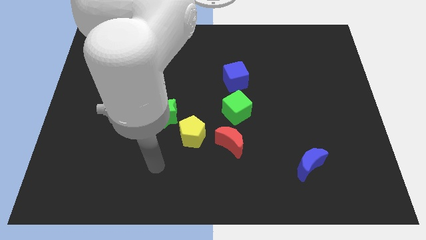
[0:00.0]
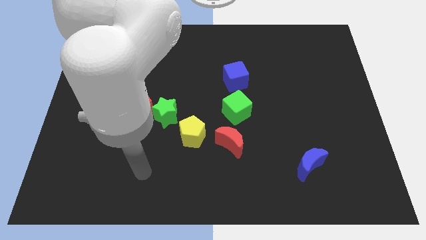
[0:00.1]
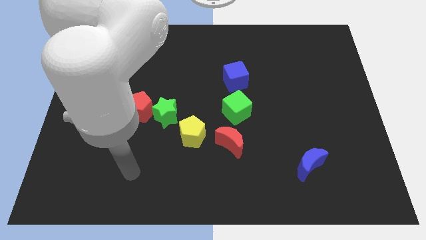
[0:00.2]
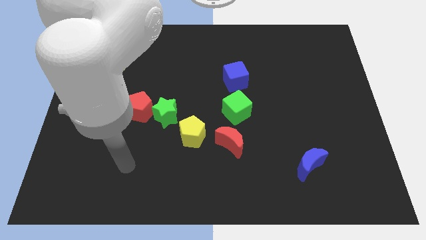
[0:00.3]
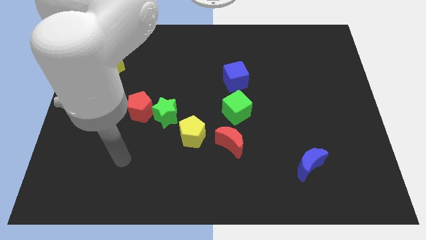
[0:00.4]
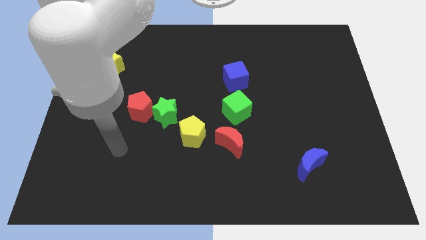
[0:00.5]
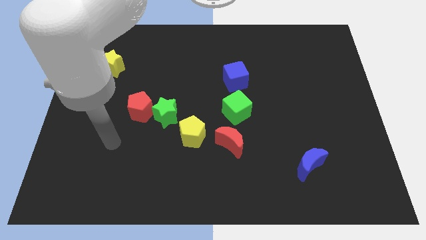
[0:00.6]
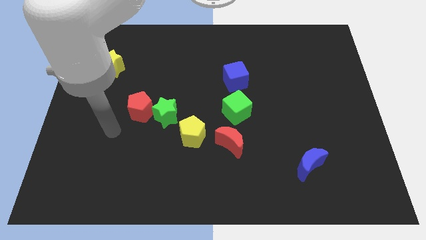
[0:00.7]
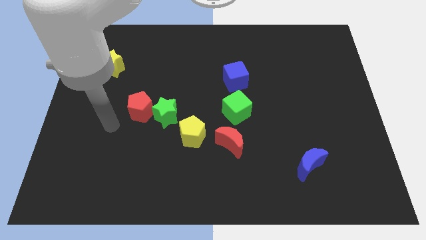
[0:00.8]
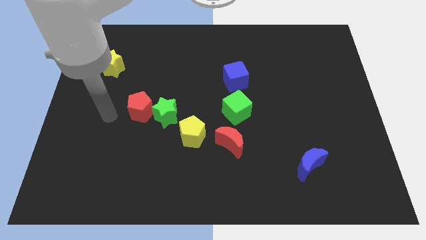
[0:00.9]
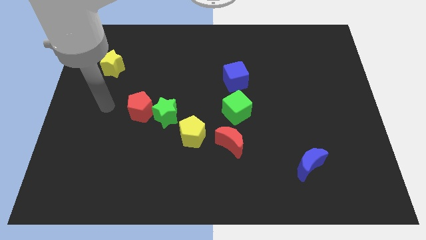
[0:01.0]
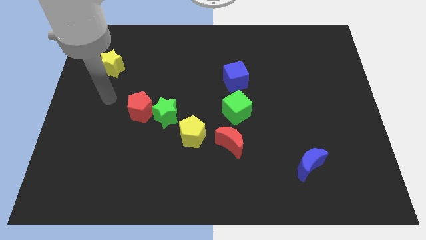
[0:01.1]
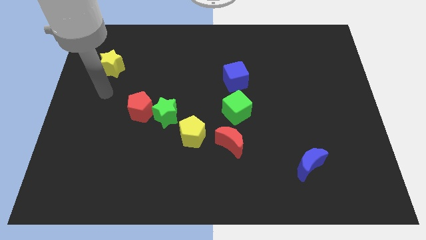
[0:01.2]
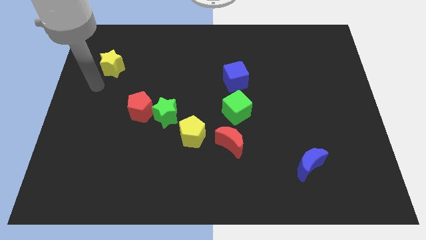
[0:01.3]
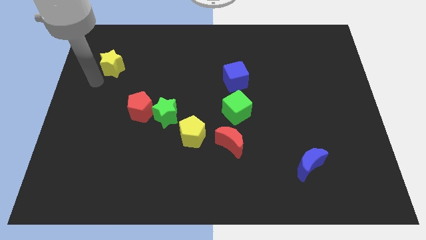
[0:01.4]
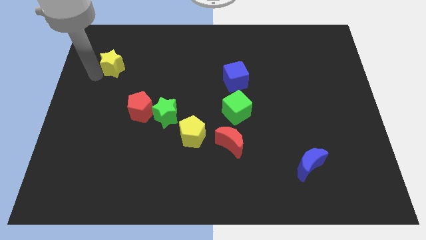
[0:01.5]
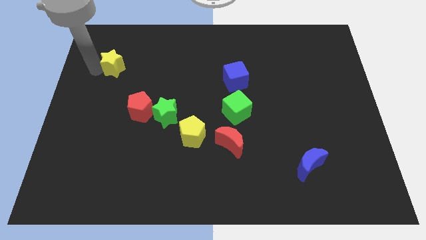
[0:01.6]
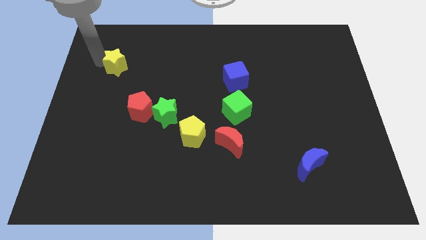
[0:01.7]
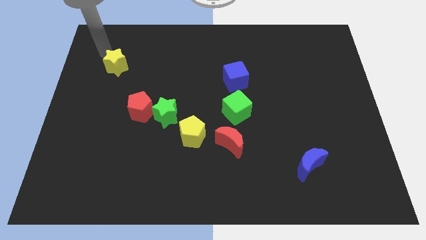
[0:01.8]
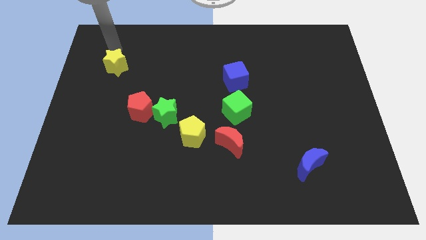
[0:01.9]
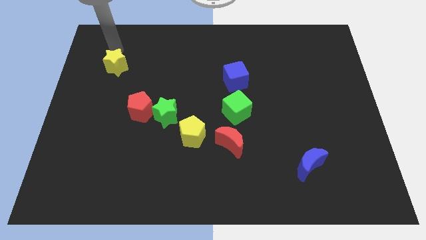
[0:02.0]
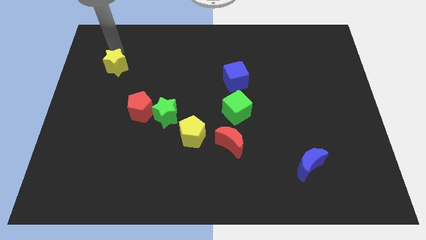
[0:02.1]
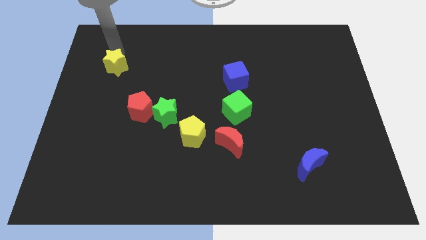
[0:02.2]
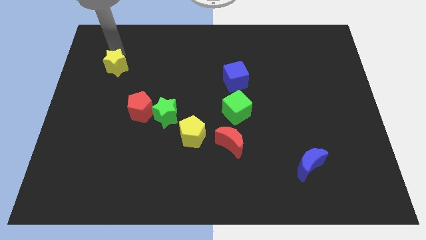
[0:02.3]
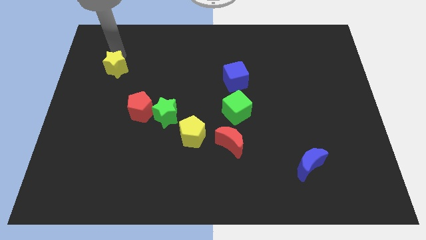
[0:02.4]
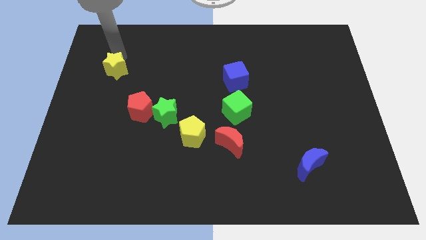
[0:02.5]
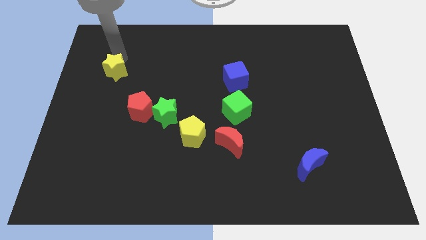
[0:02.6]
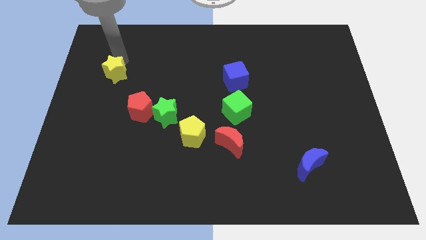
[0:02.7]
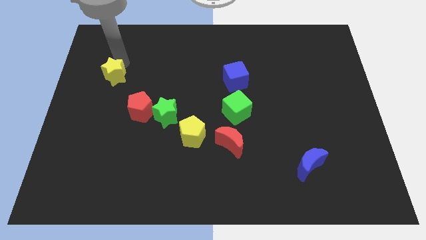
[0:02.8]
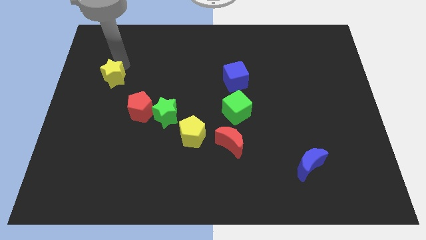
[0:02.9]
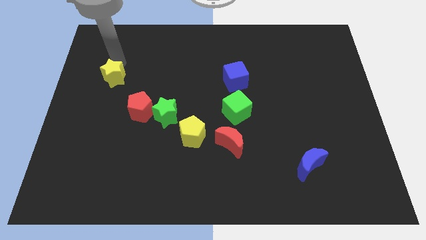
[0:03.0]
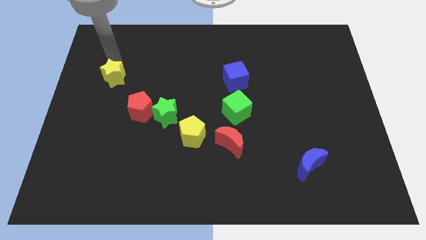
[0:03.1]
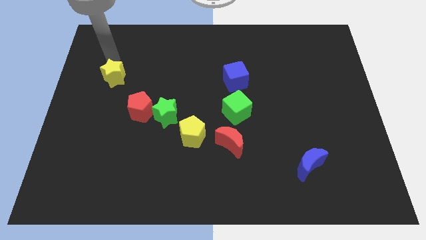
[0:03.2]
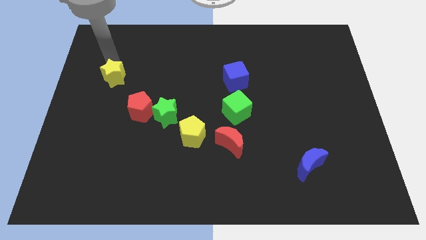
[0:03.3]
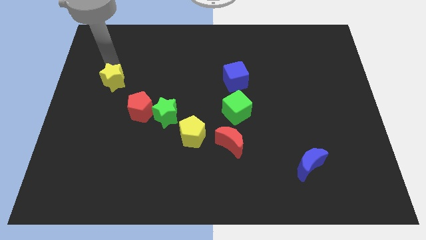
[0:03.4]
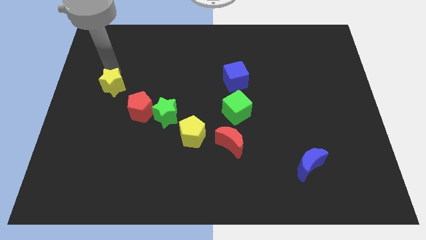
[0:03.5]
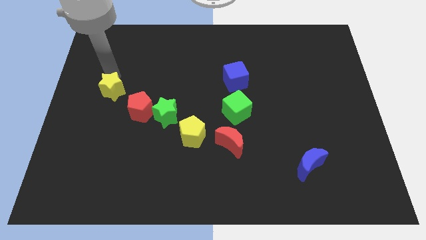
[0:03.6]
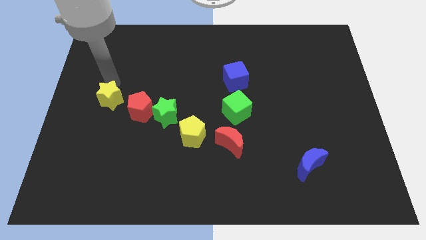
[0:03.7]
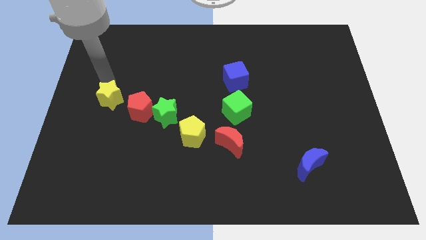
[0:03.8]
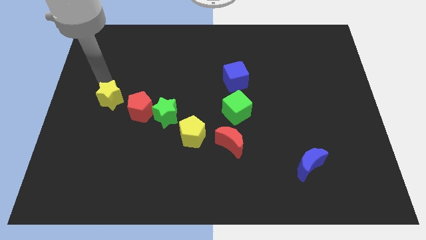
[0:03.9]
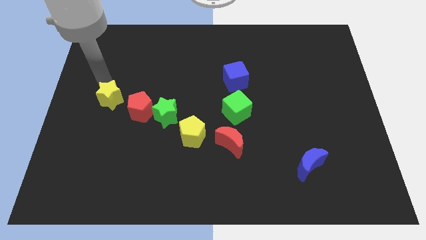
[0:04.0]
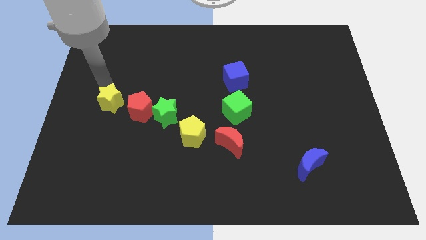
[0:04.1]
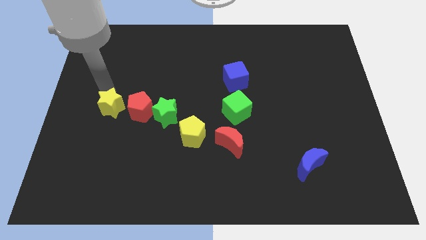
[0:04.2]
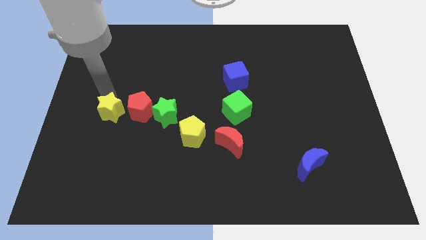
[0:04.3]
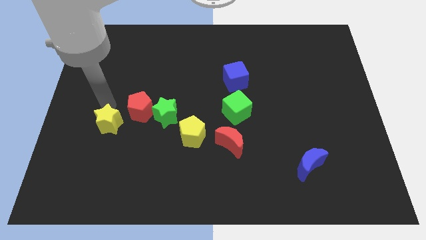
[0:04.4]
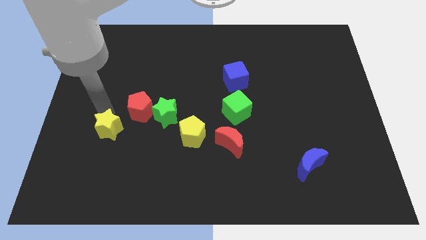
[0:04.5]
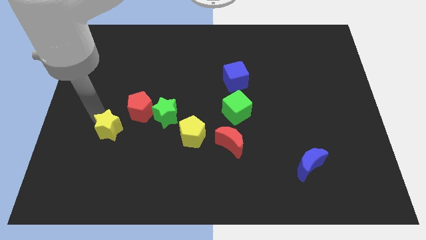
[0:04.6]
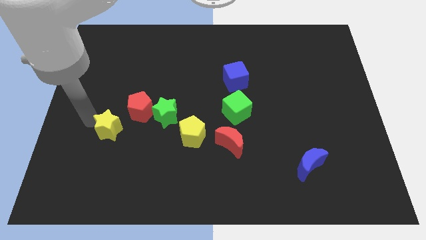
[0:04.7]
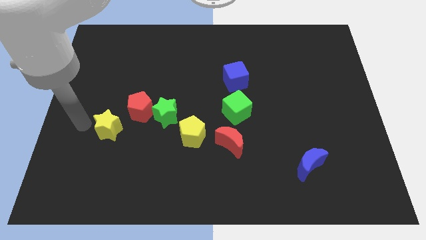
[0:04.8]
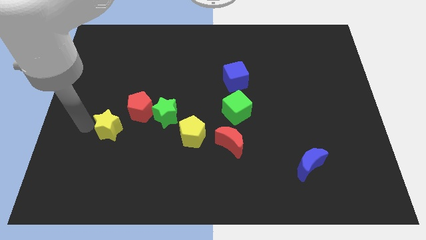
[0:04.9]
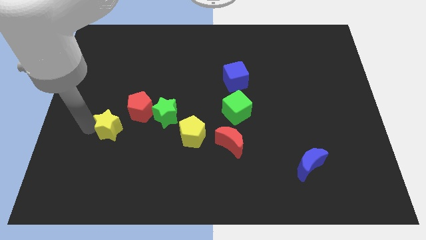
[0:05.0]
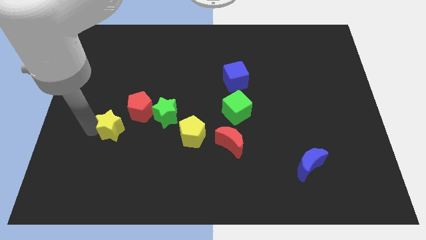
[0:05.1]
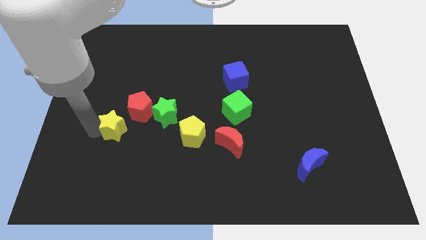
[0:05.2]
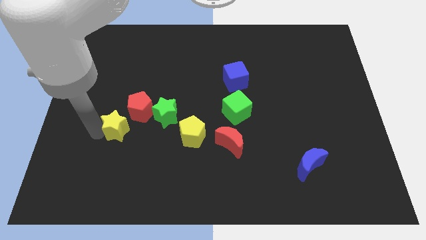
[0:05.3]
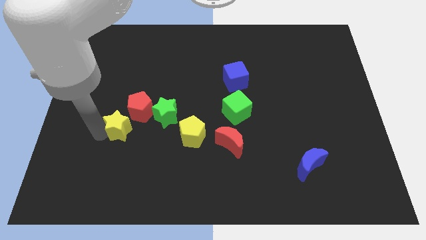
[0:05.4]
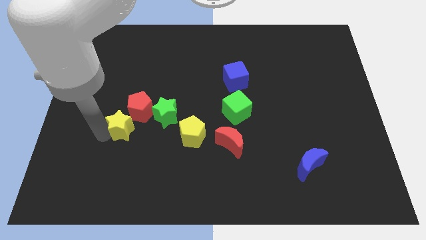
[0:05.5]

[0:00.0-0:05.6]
put the yellow star to the bottom left side of the green star

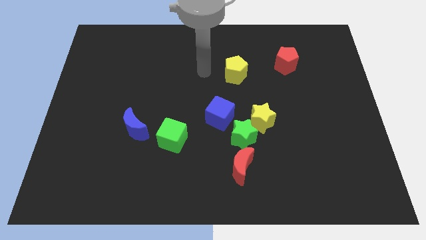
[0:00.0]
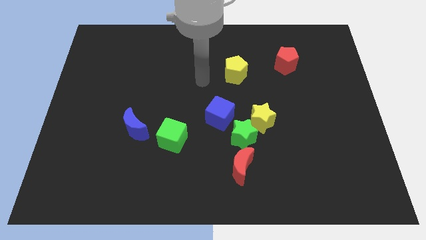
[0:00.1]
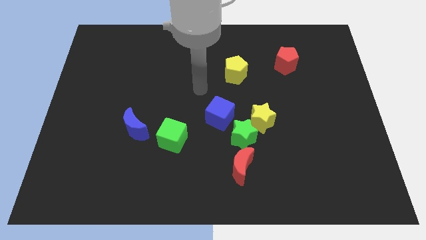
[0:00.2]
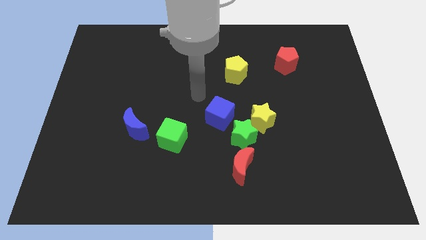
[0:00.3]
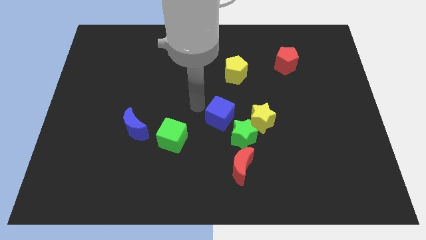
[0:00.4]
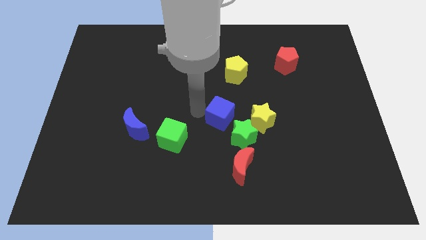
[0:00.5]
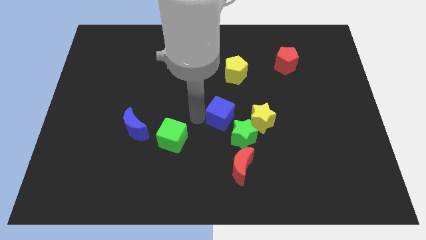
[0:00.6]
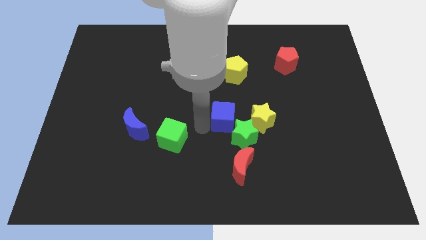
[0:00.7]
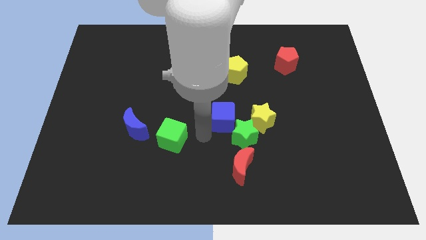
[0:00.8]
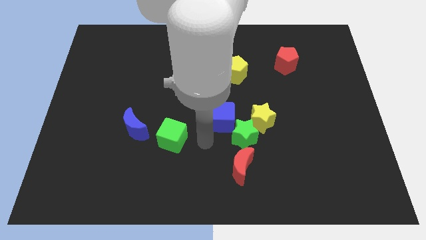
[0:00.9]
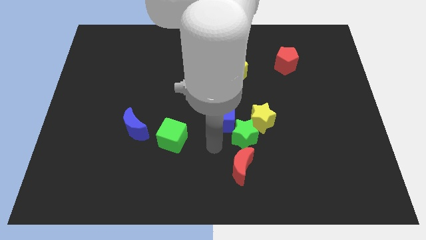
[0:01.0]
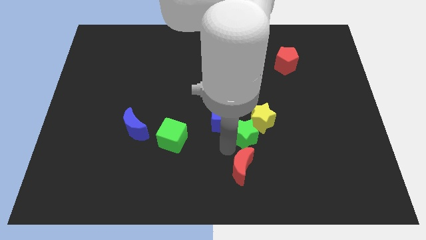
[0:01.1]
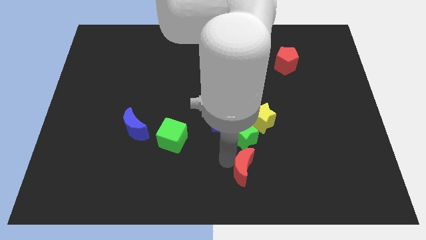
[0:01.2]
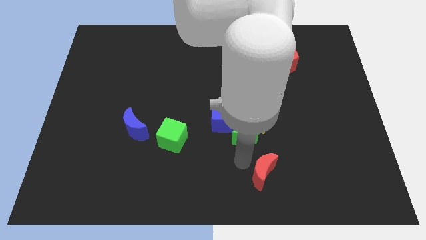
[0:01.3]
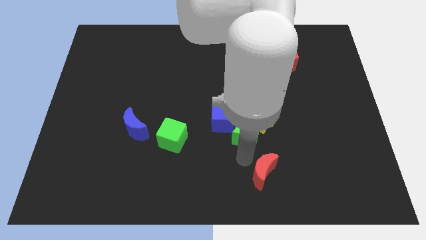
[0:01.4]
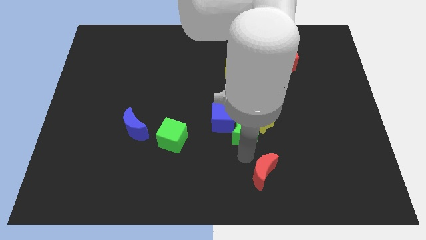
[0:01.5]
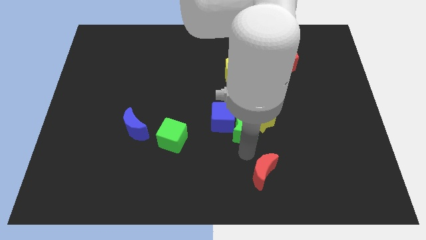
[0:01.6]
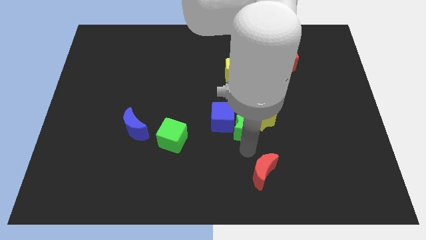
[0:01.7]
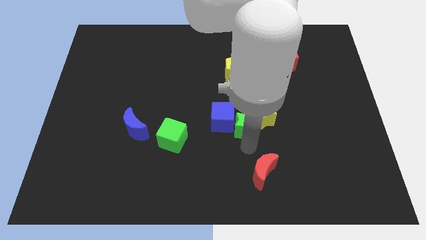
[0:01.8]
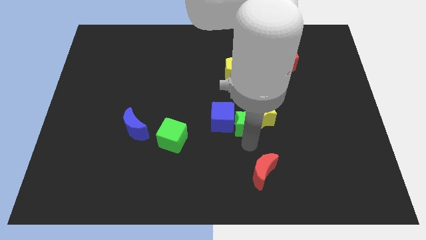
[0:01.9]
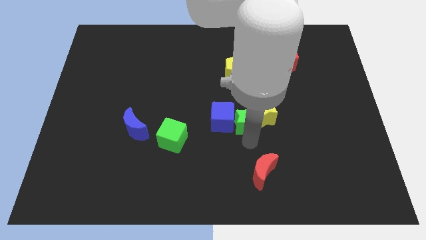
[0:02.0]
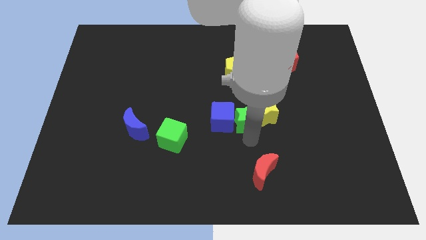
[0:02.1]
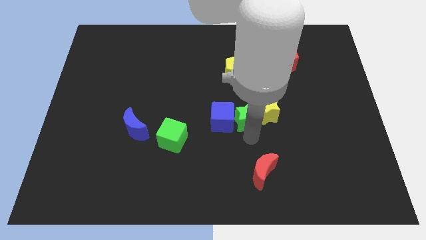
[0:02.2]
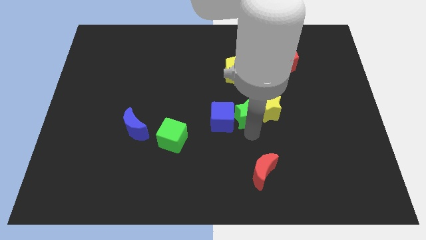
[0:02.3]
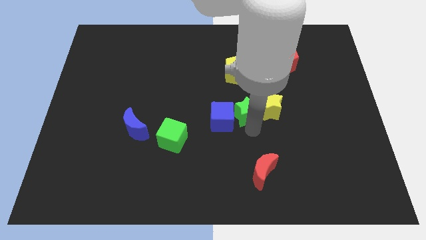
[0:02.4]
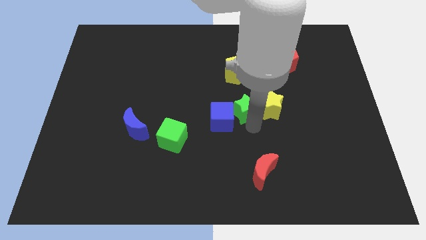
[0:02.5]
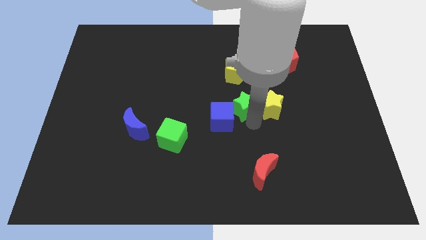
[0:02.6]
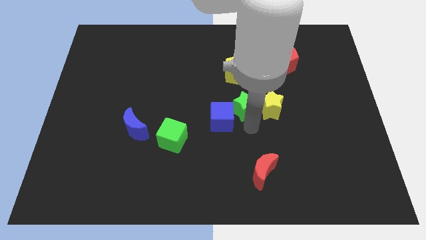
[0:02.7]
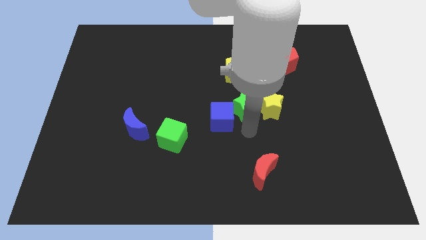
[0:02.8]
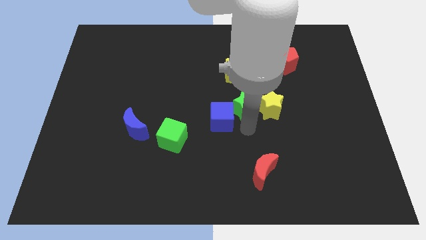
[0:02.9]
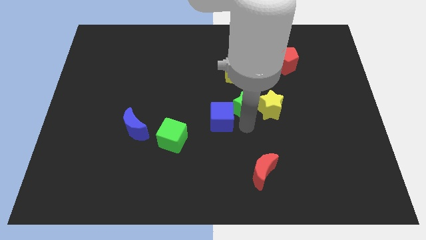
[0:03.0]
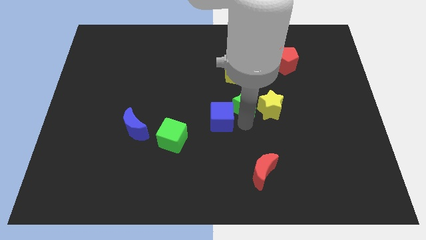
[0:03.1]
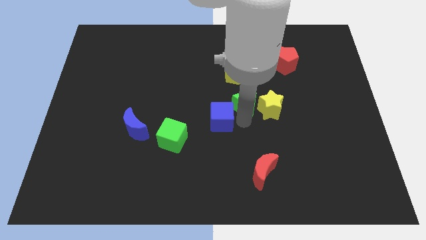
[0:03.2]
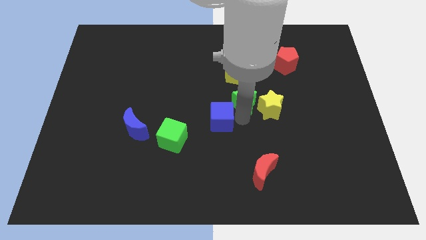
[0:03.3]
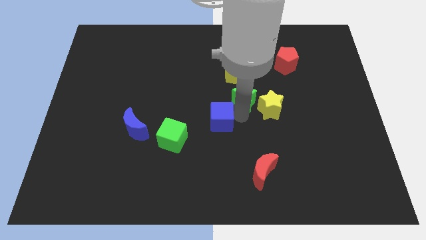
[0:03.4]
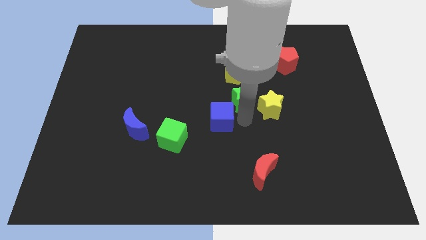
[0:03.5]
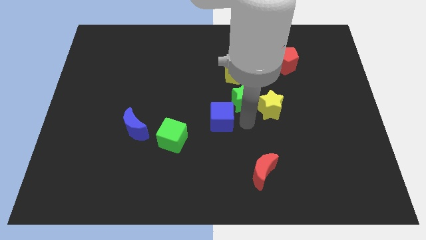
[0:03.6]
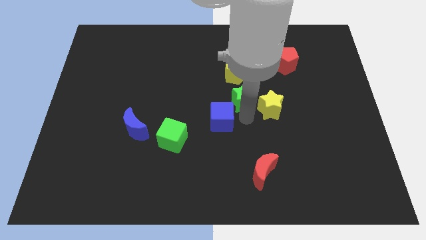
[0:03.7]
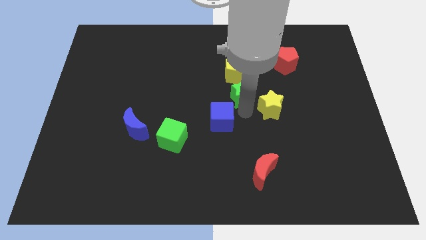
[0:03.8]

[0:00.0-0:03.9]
slide the green star to the top side of the blue cube
